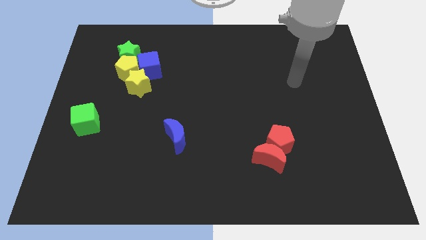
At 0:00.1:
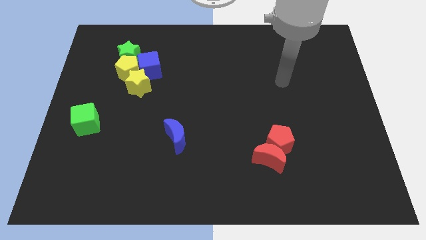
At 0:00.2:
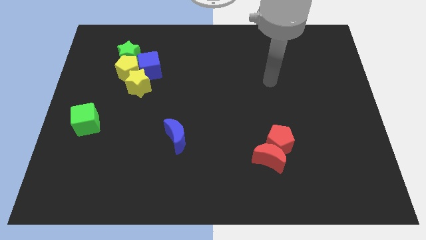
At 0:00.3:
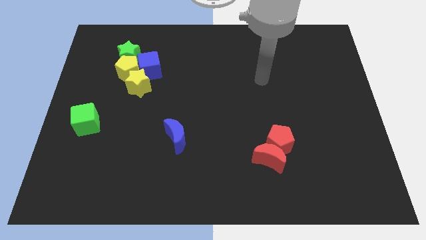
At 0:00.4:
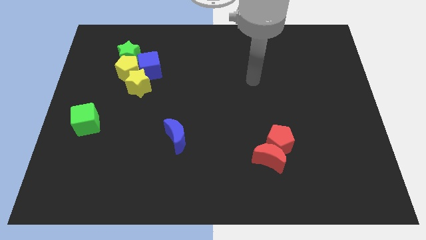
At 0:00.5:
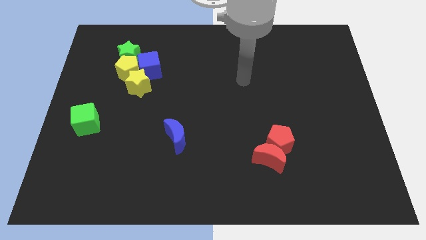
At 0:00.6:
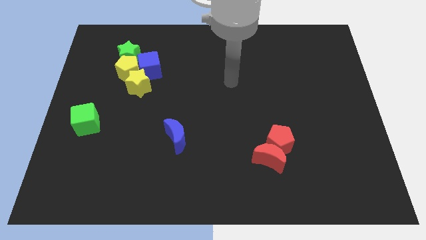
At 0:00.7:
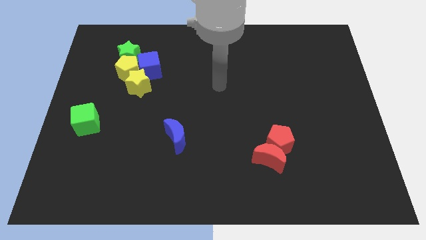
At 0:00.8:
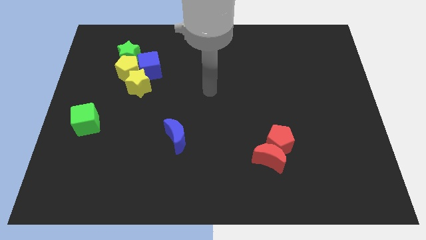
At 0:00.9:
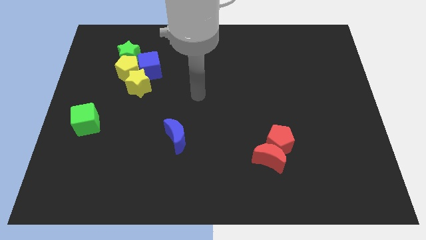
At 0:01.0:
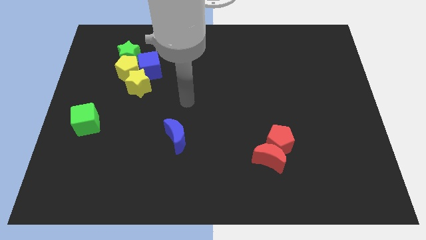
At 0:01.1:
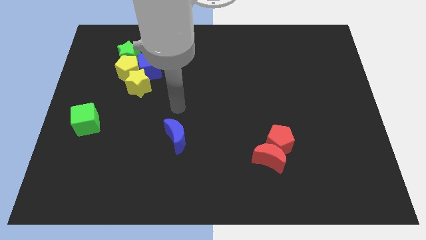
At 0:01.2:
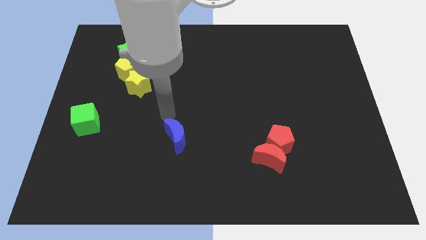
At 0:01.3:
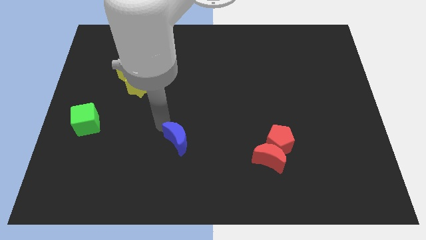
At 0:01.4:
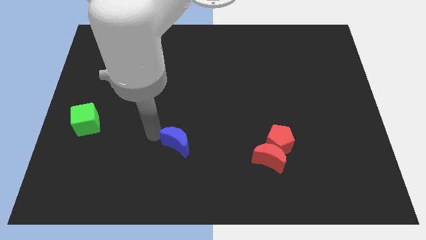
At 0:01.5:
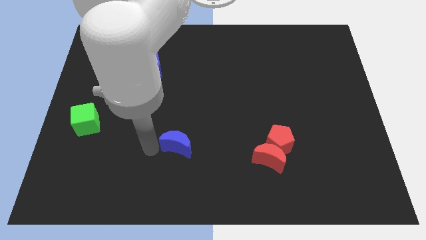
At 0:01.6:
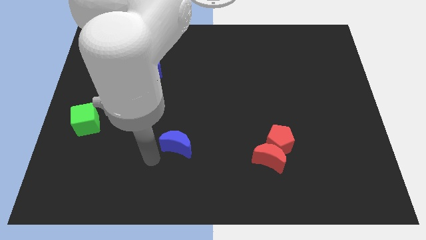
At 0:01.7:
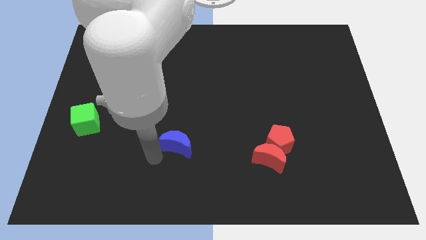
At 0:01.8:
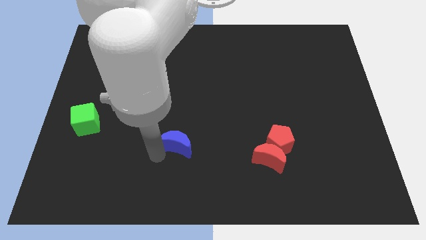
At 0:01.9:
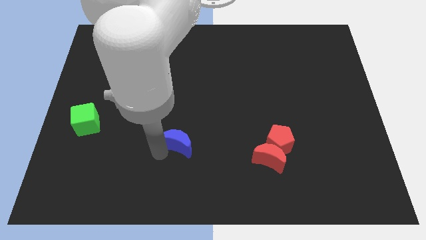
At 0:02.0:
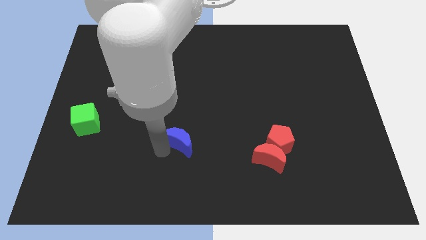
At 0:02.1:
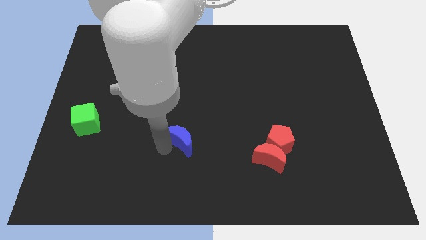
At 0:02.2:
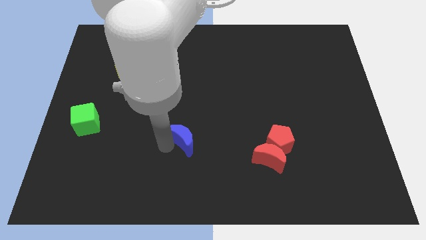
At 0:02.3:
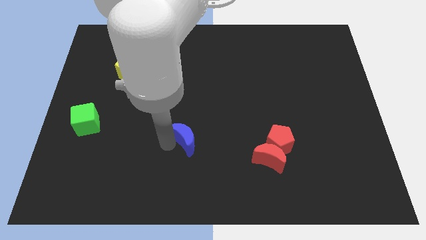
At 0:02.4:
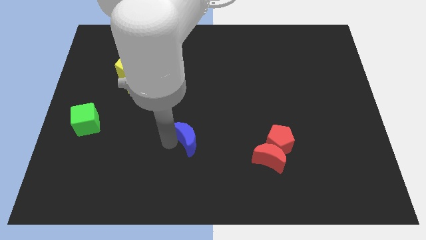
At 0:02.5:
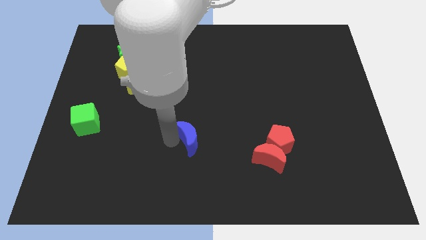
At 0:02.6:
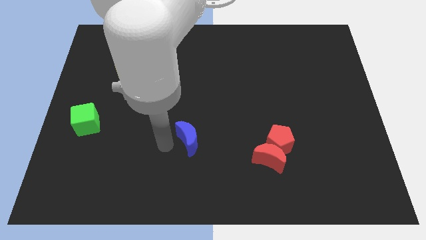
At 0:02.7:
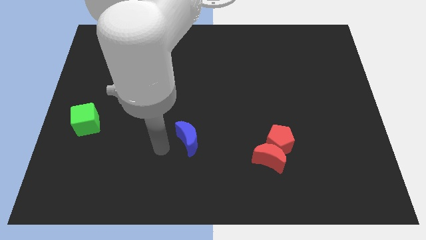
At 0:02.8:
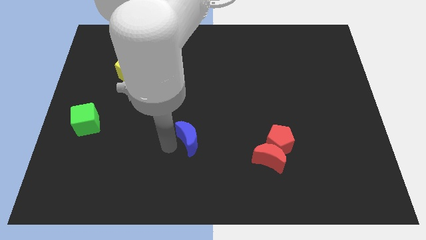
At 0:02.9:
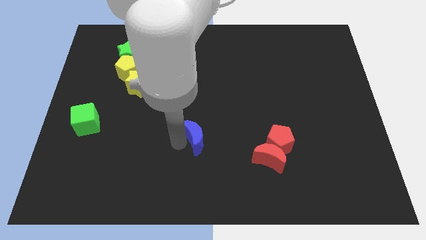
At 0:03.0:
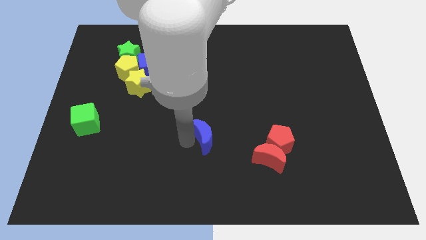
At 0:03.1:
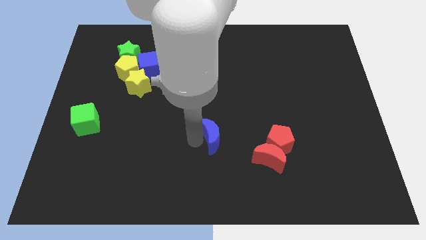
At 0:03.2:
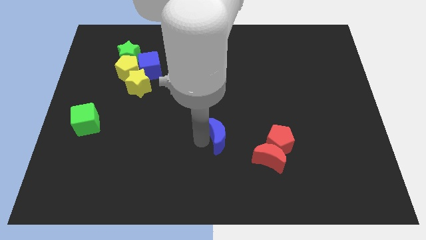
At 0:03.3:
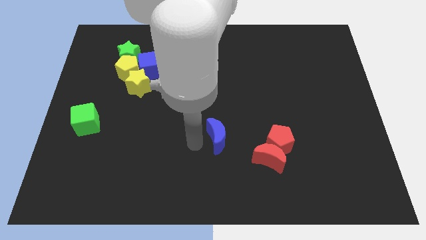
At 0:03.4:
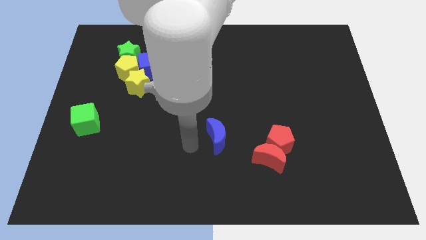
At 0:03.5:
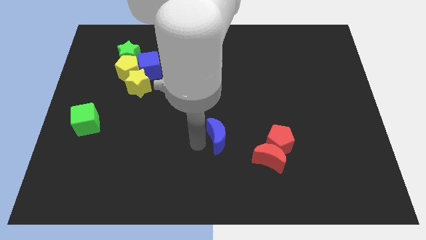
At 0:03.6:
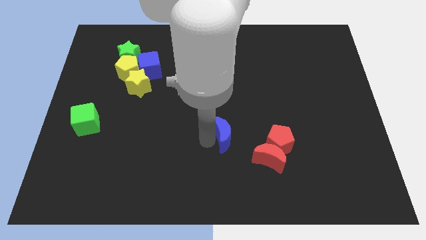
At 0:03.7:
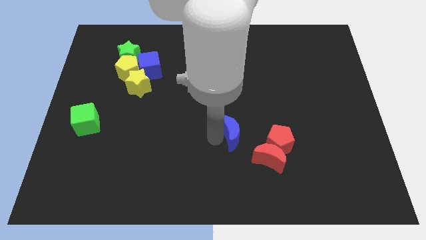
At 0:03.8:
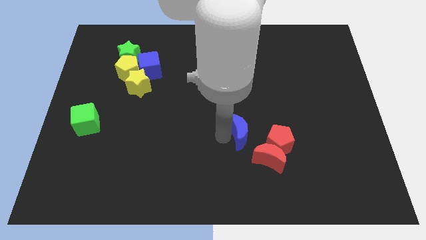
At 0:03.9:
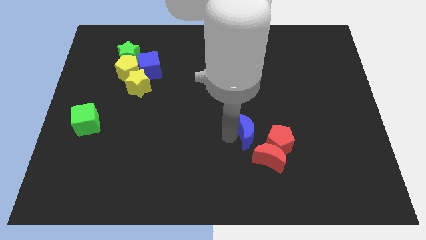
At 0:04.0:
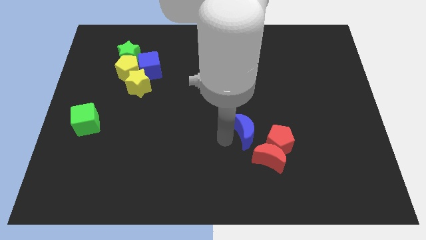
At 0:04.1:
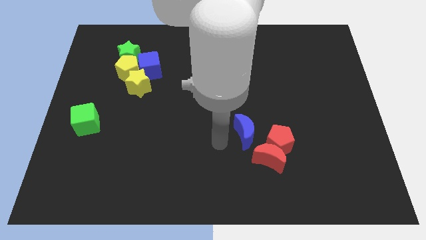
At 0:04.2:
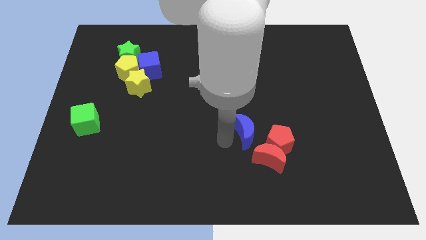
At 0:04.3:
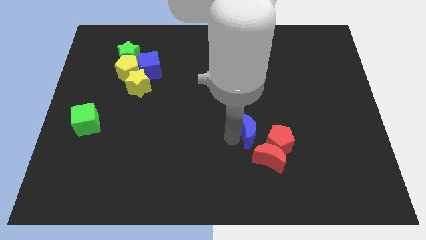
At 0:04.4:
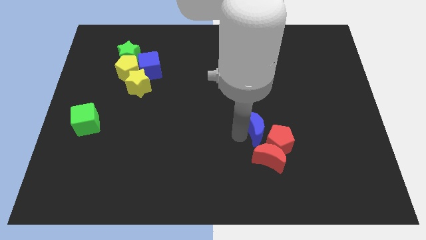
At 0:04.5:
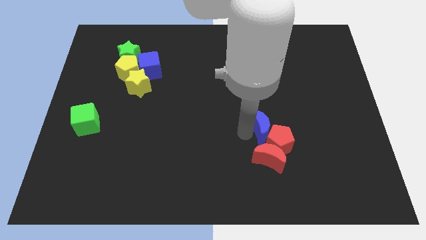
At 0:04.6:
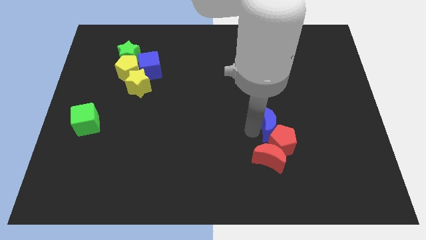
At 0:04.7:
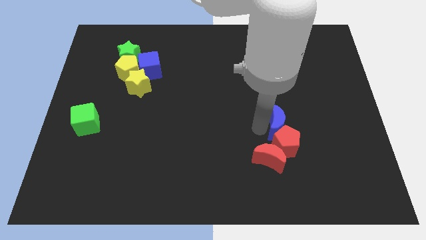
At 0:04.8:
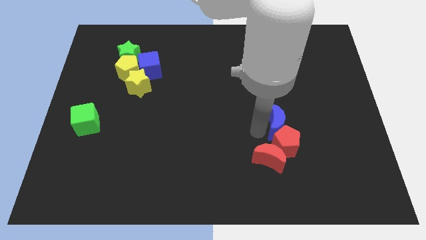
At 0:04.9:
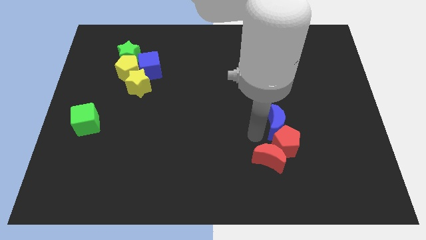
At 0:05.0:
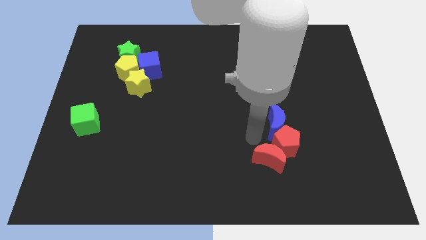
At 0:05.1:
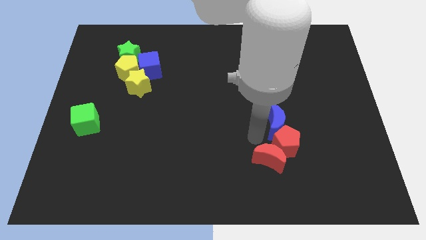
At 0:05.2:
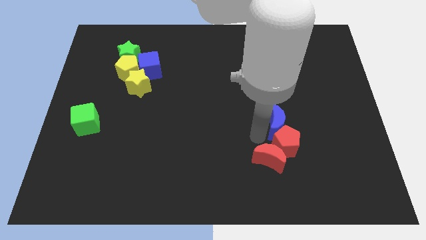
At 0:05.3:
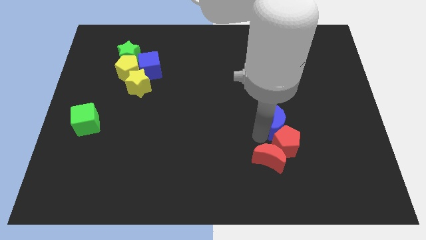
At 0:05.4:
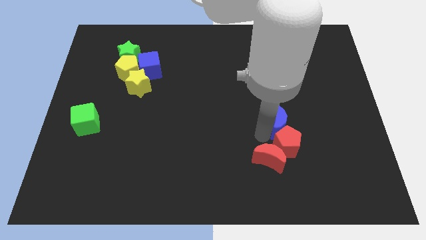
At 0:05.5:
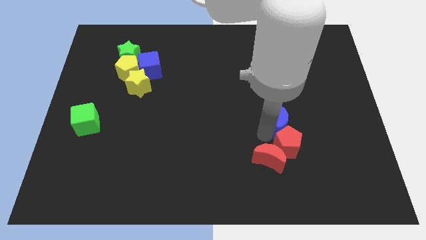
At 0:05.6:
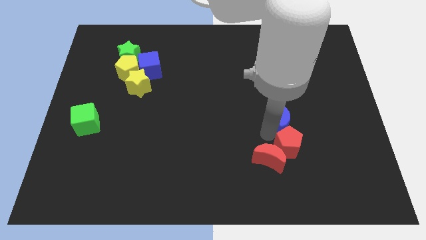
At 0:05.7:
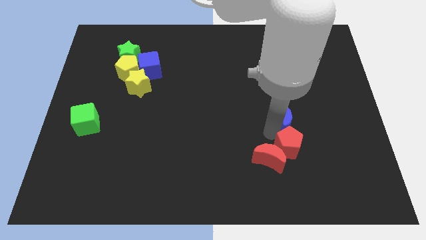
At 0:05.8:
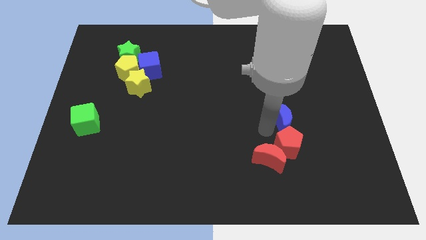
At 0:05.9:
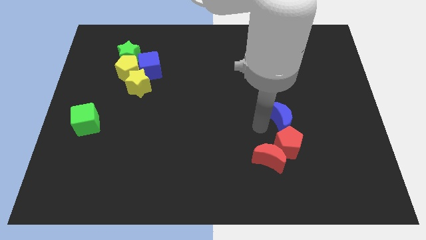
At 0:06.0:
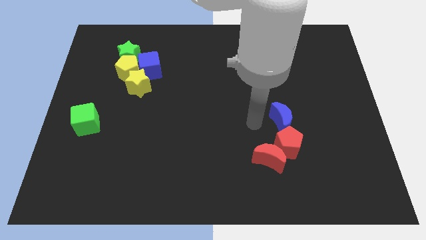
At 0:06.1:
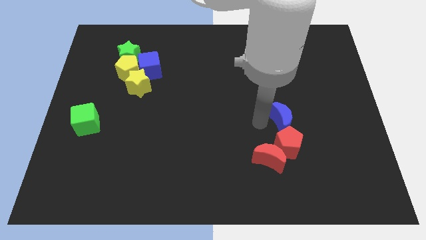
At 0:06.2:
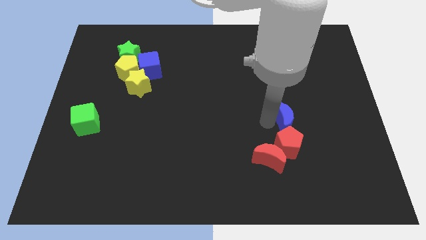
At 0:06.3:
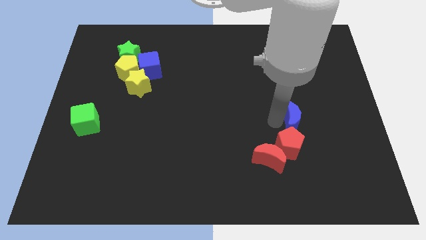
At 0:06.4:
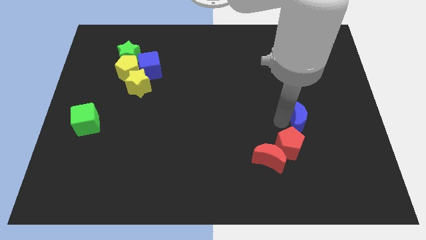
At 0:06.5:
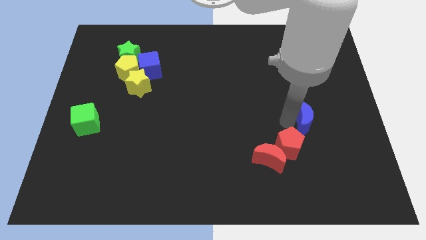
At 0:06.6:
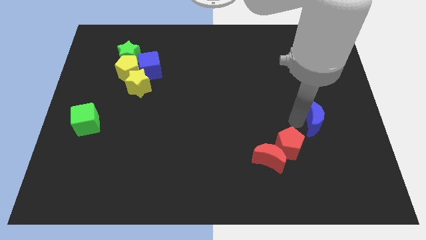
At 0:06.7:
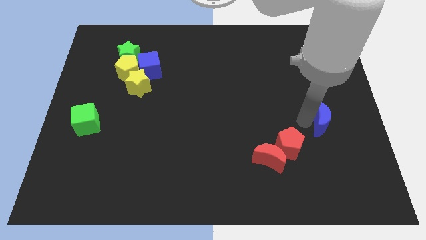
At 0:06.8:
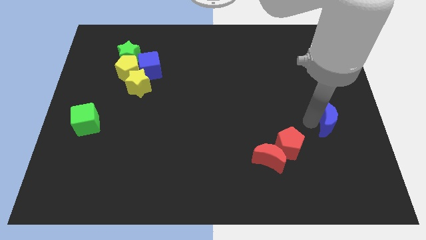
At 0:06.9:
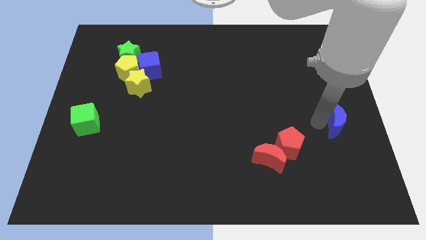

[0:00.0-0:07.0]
push the blue moon to the right side
